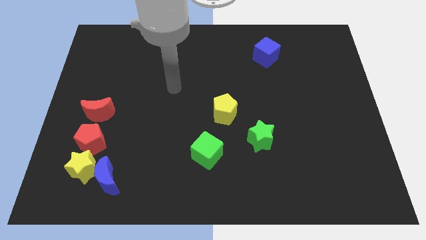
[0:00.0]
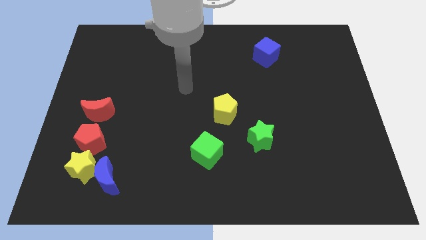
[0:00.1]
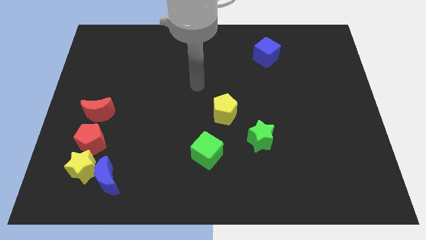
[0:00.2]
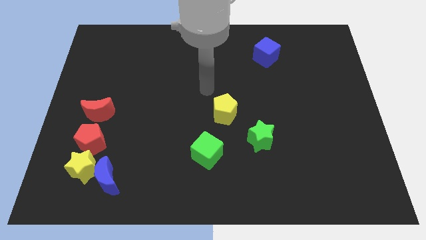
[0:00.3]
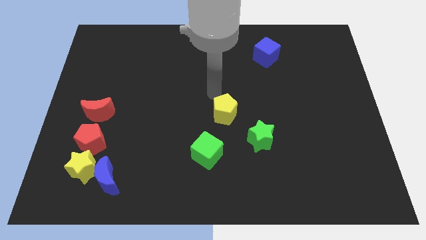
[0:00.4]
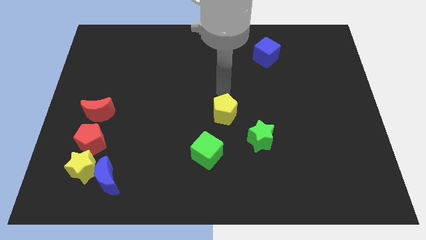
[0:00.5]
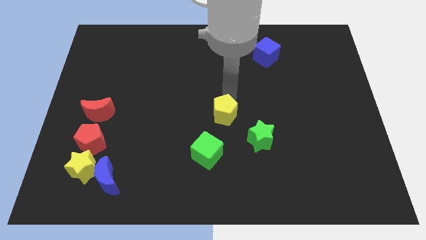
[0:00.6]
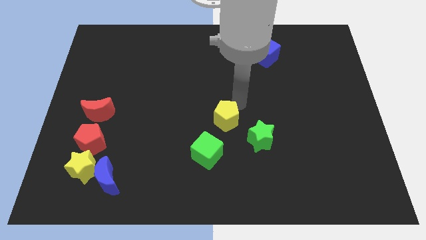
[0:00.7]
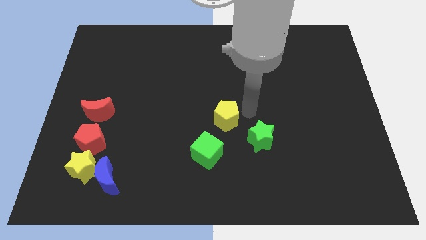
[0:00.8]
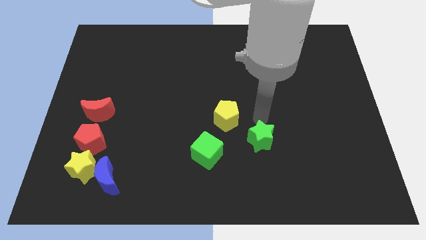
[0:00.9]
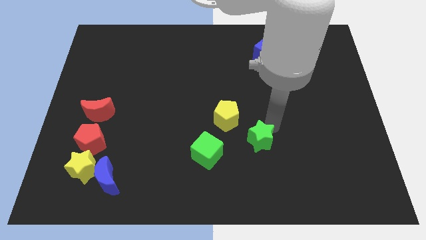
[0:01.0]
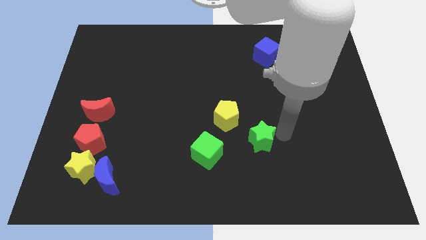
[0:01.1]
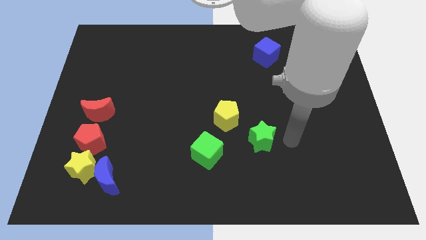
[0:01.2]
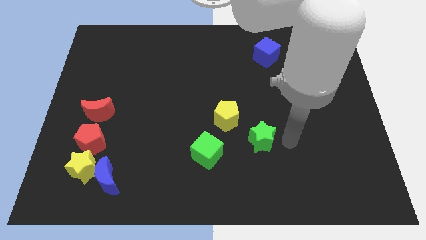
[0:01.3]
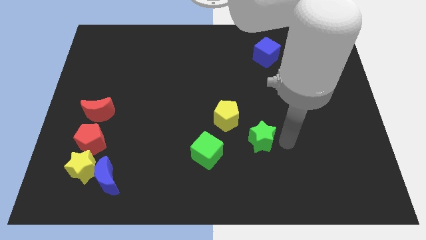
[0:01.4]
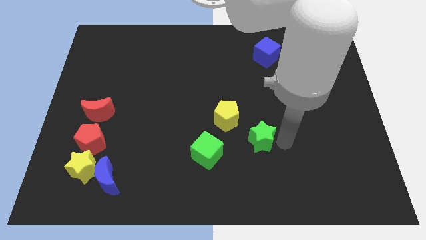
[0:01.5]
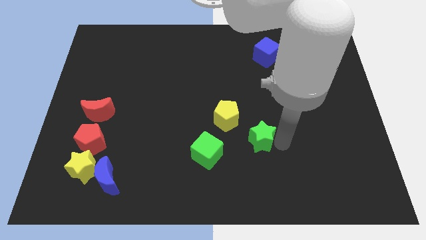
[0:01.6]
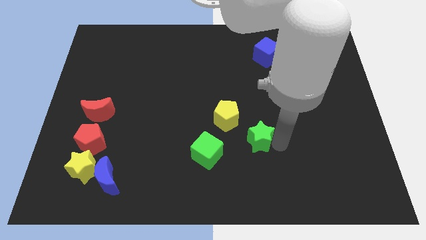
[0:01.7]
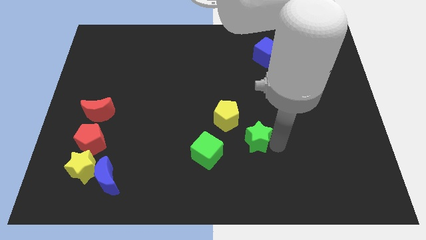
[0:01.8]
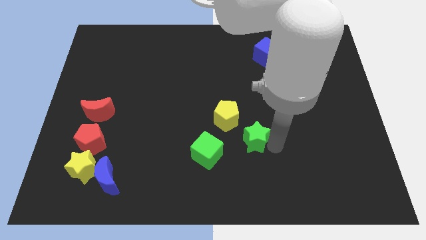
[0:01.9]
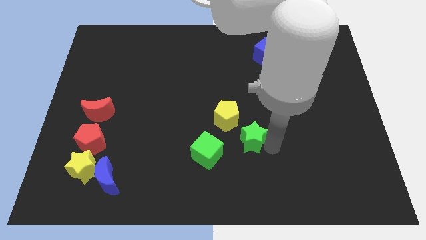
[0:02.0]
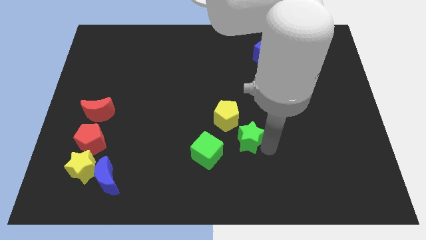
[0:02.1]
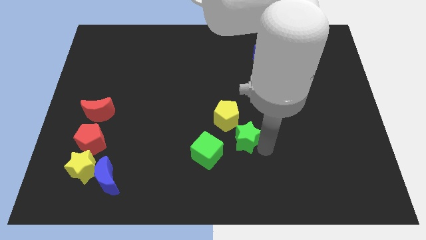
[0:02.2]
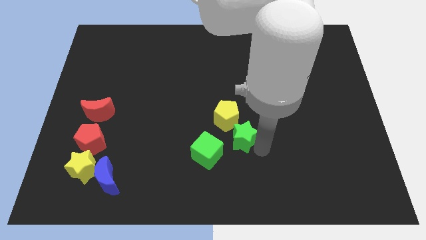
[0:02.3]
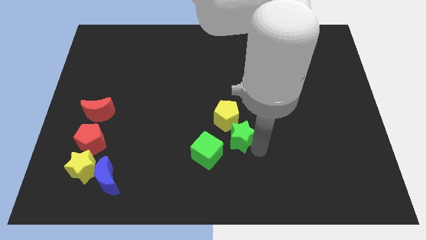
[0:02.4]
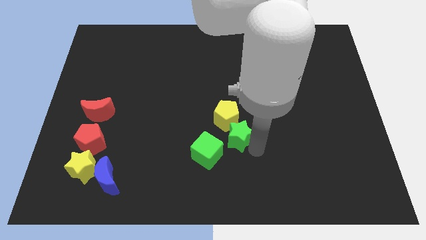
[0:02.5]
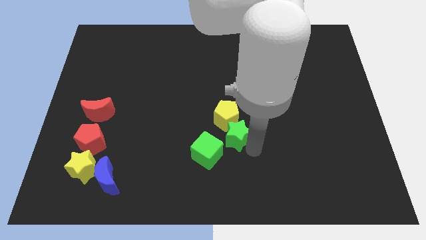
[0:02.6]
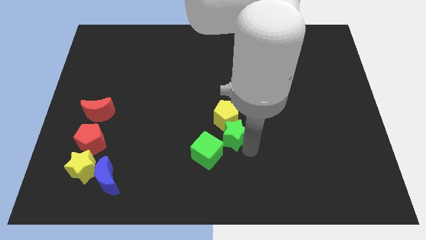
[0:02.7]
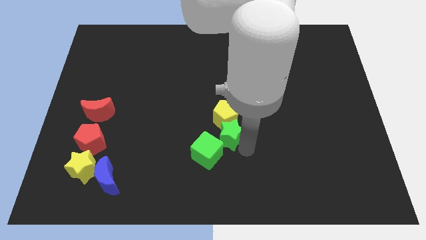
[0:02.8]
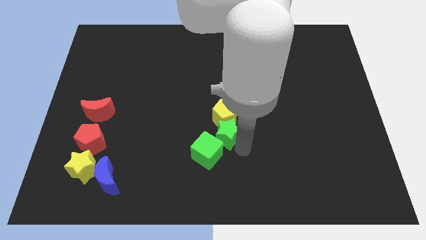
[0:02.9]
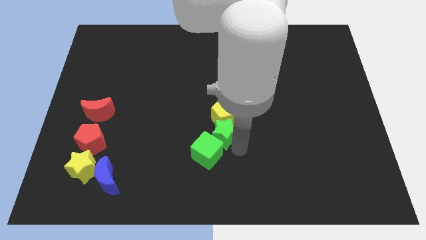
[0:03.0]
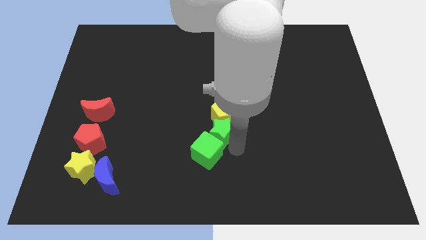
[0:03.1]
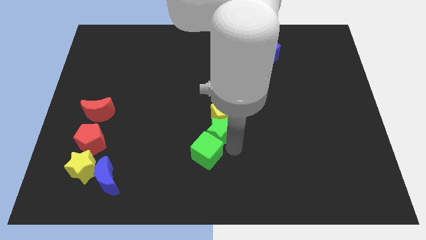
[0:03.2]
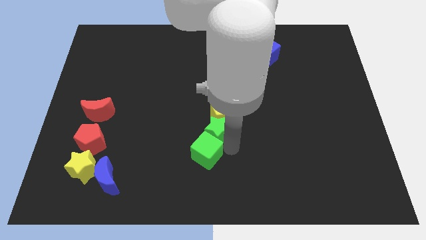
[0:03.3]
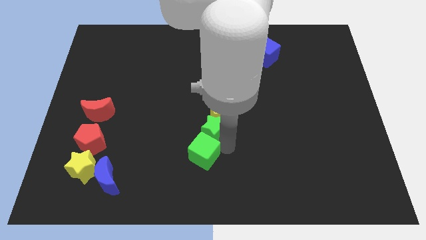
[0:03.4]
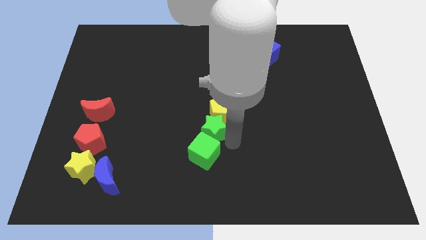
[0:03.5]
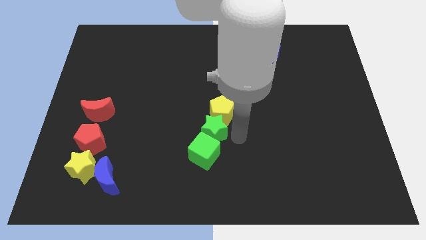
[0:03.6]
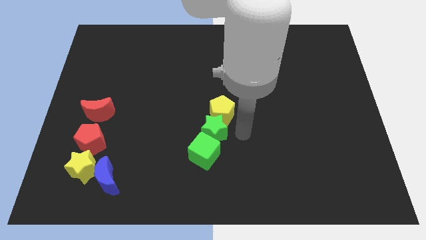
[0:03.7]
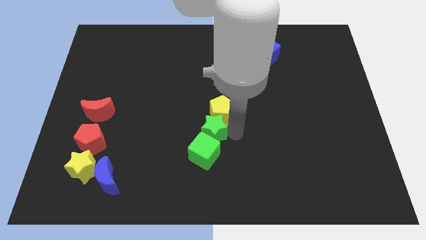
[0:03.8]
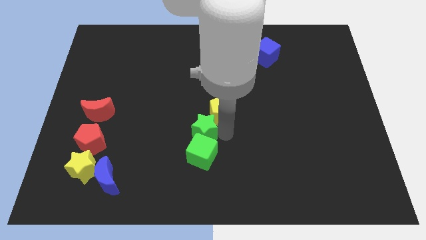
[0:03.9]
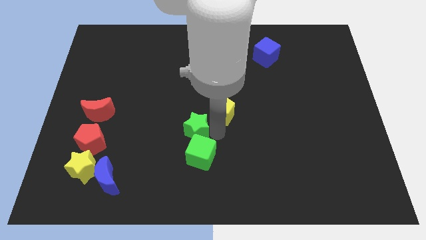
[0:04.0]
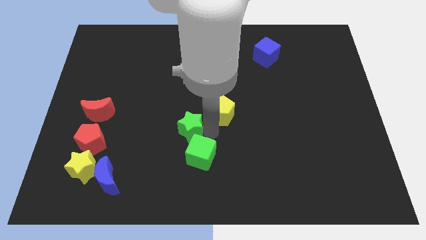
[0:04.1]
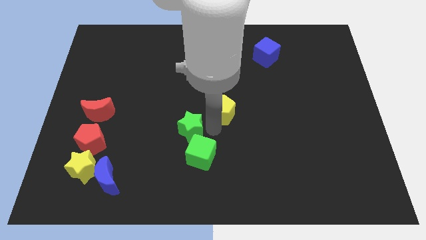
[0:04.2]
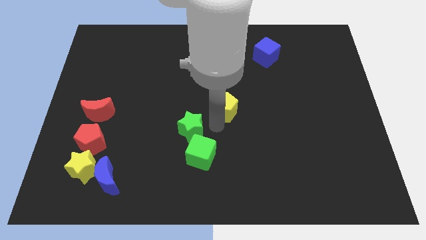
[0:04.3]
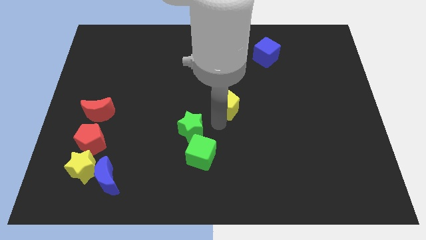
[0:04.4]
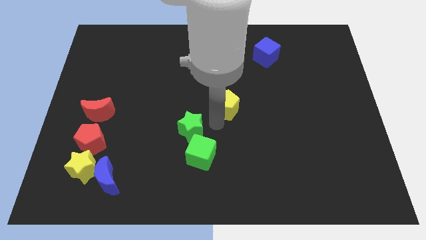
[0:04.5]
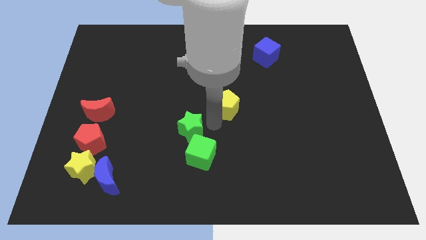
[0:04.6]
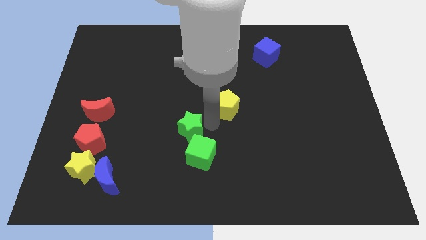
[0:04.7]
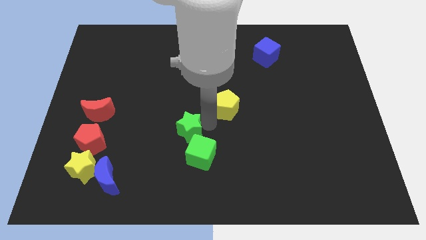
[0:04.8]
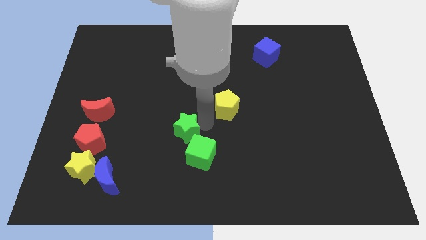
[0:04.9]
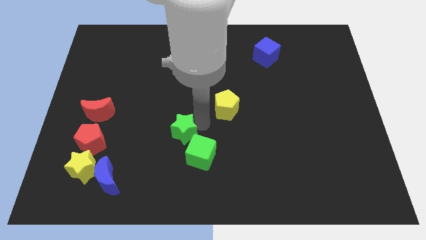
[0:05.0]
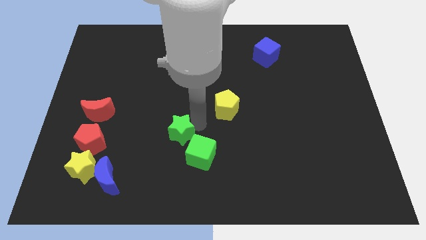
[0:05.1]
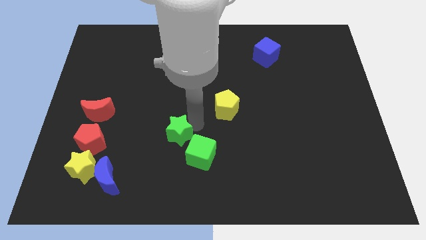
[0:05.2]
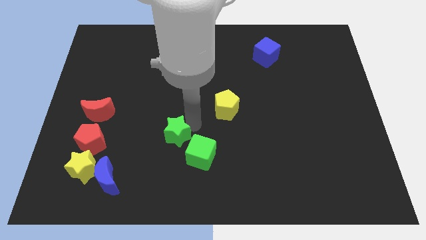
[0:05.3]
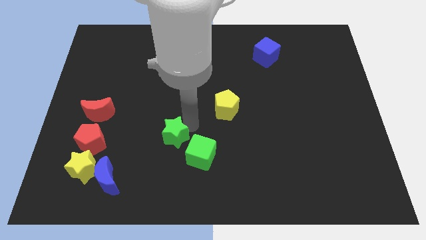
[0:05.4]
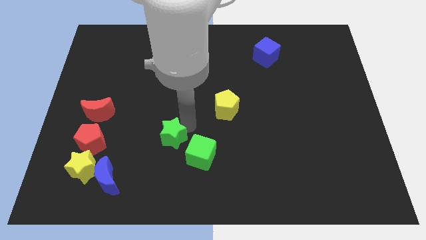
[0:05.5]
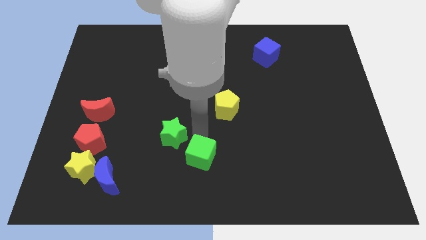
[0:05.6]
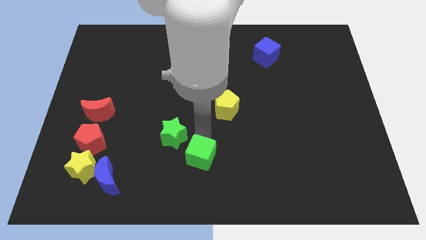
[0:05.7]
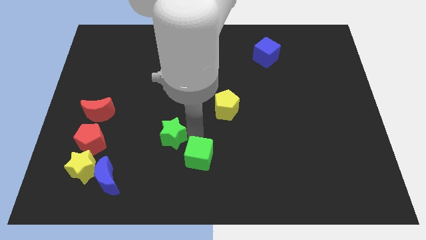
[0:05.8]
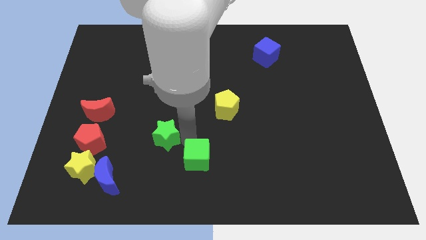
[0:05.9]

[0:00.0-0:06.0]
push the green star to the left

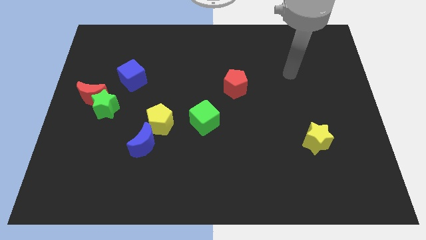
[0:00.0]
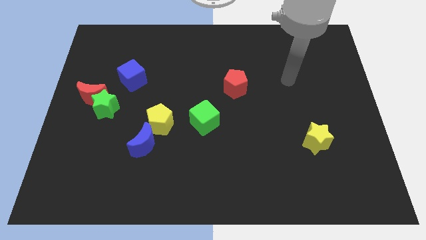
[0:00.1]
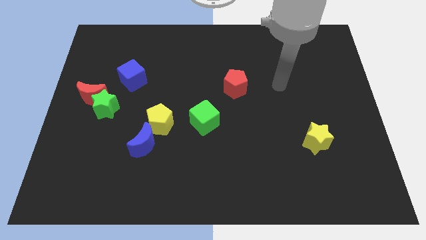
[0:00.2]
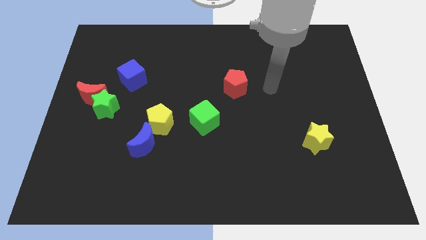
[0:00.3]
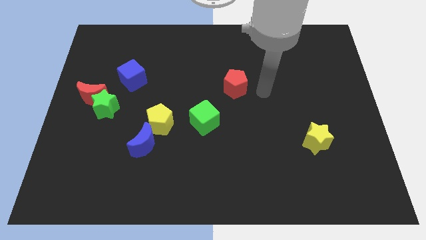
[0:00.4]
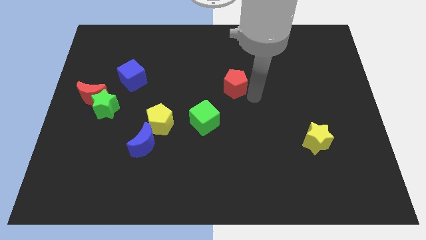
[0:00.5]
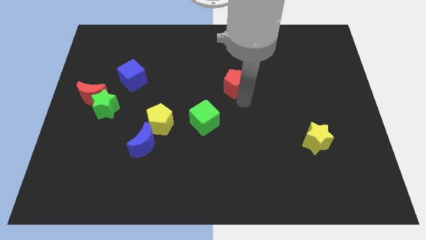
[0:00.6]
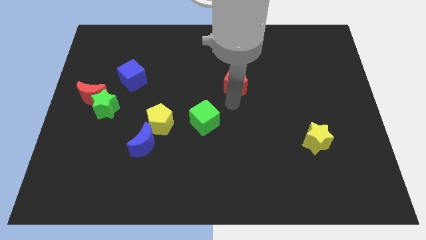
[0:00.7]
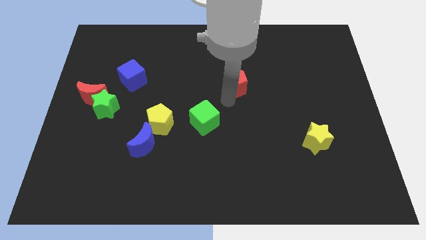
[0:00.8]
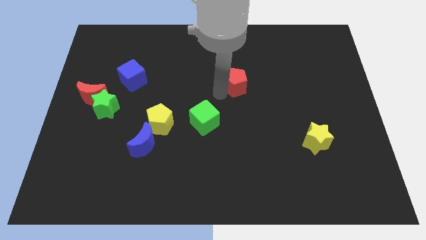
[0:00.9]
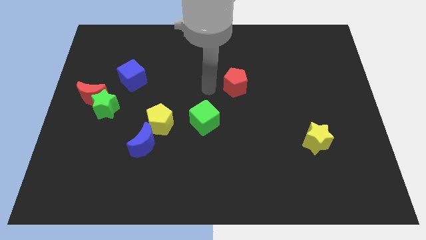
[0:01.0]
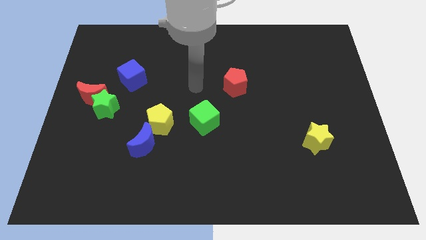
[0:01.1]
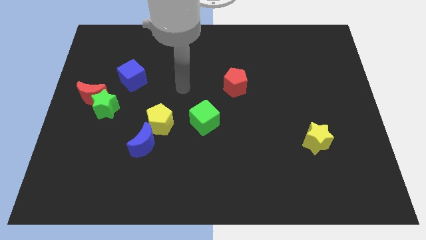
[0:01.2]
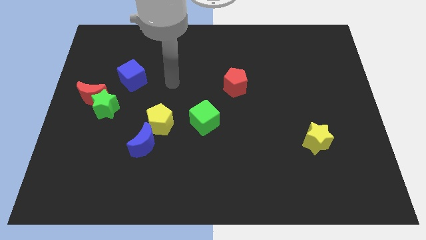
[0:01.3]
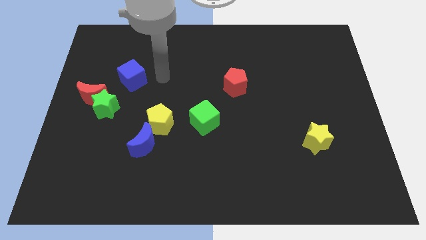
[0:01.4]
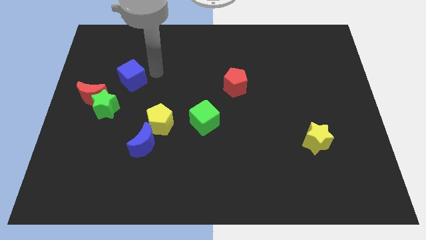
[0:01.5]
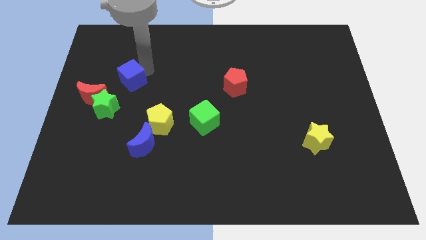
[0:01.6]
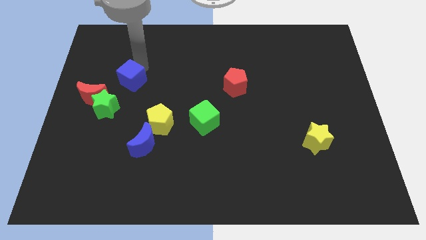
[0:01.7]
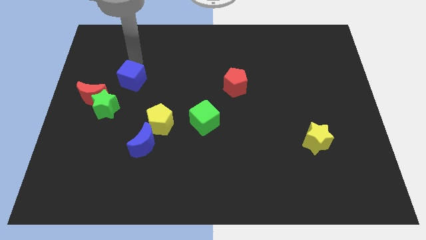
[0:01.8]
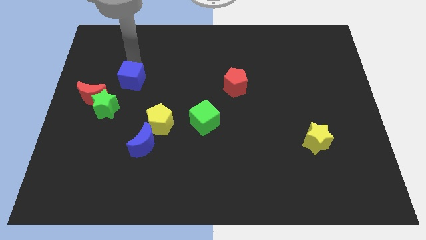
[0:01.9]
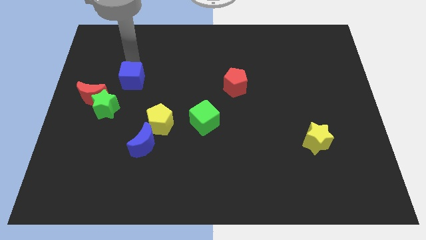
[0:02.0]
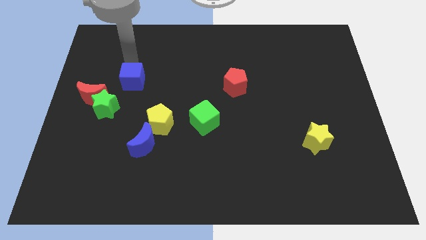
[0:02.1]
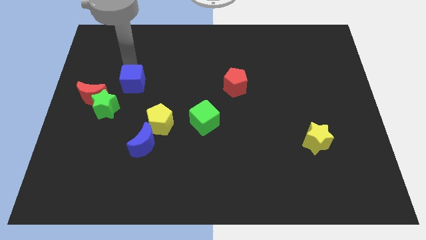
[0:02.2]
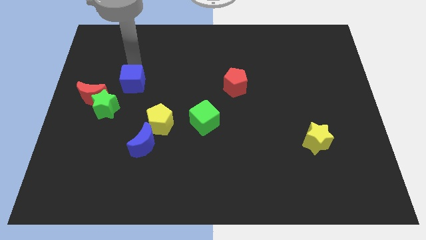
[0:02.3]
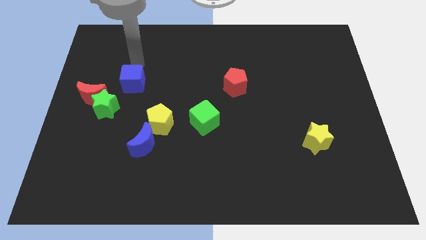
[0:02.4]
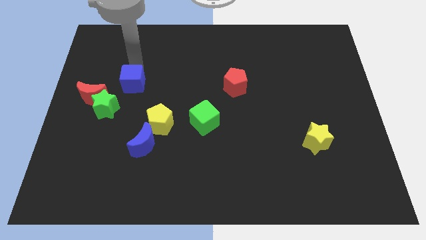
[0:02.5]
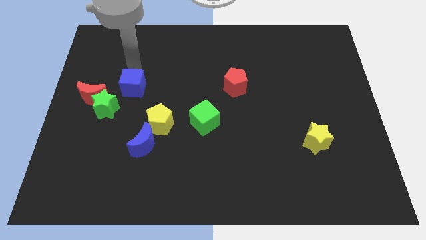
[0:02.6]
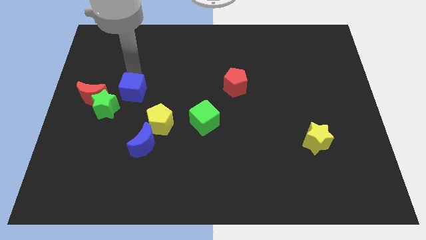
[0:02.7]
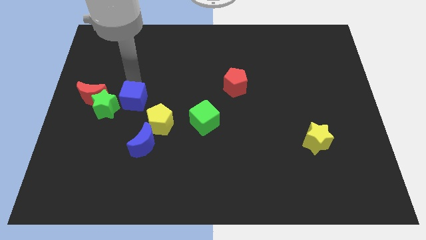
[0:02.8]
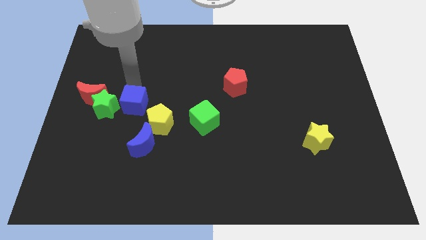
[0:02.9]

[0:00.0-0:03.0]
slightly move the blue cube downwards
